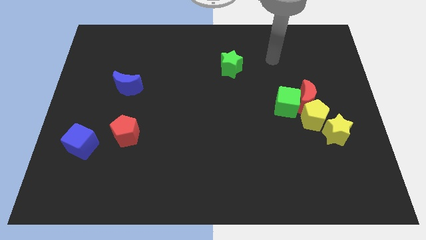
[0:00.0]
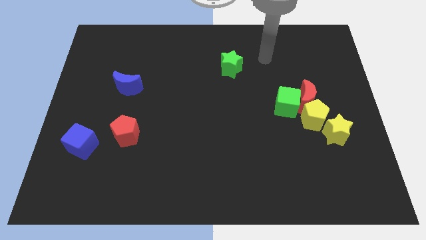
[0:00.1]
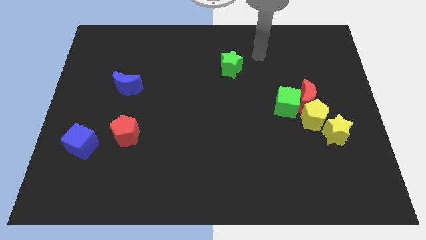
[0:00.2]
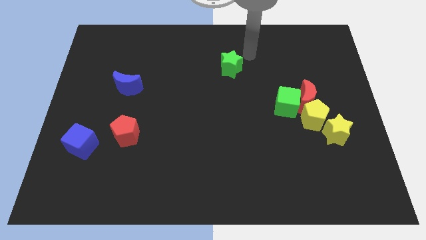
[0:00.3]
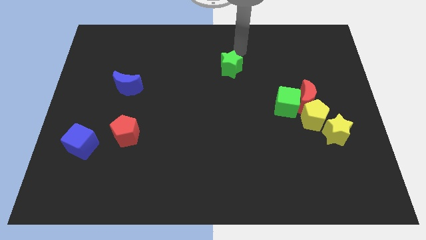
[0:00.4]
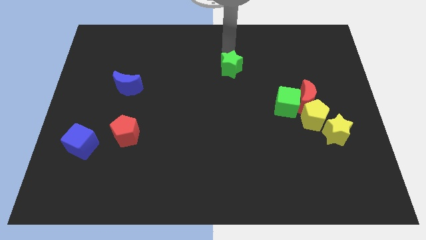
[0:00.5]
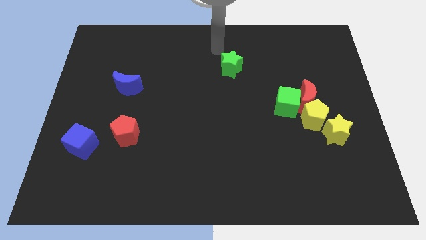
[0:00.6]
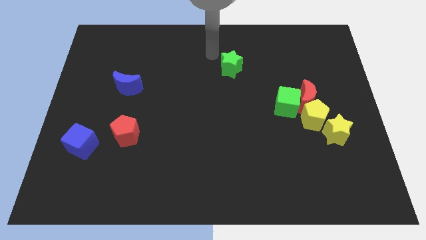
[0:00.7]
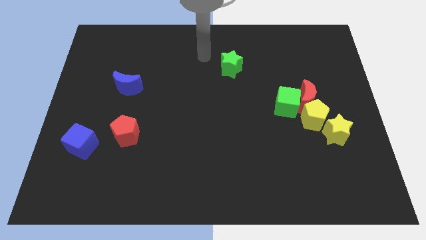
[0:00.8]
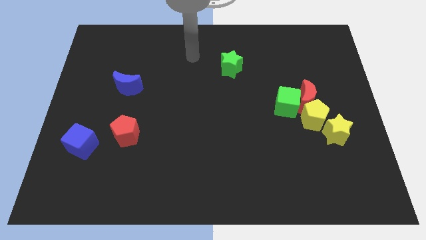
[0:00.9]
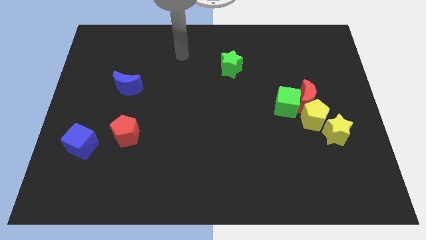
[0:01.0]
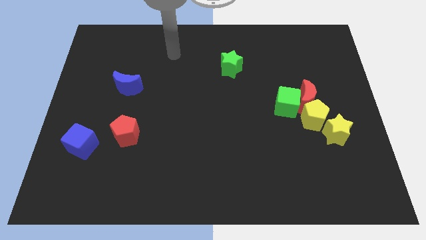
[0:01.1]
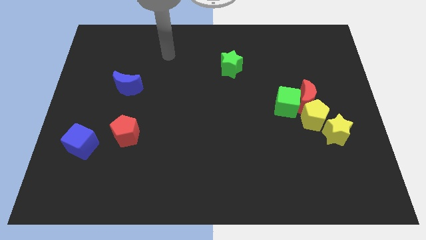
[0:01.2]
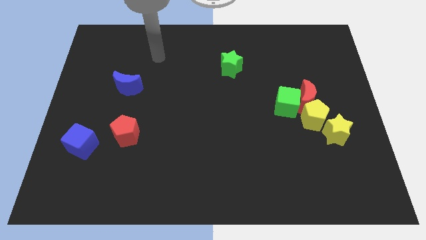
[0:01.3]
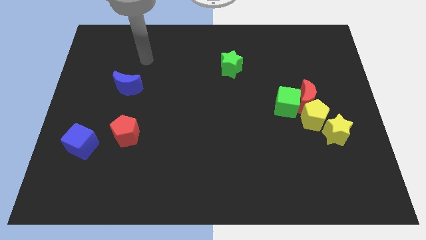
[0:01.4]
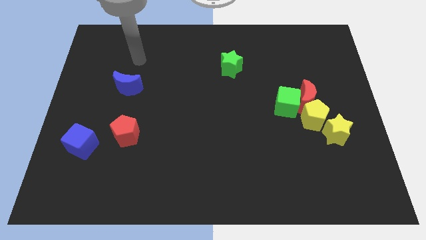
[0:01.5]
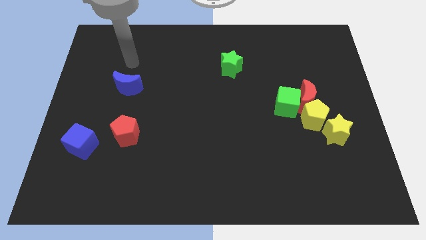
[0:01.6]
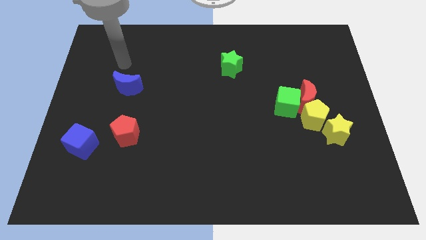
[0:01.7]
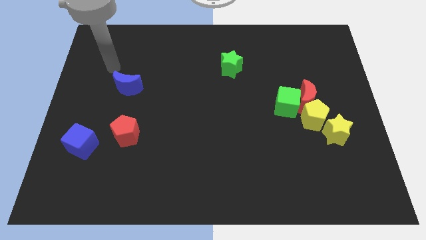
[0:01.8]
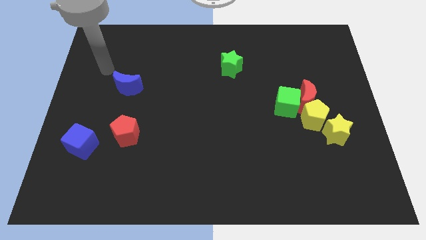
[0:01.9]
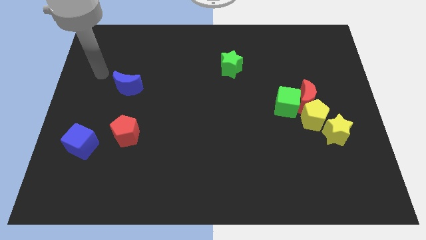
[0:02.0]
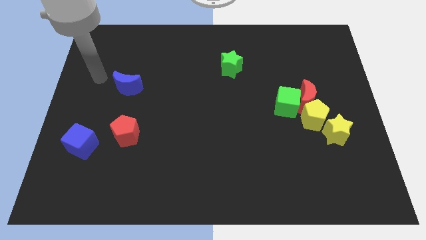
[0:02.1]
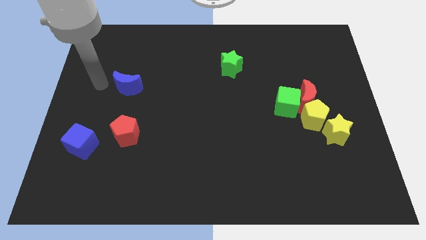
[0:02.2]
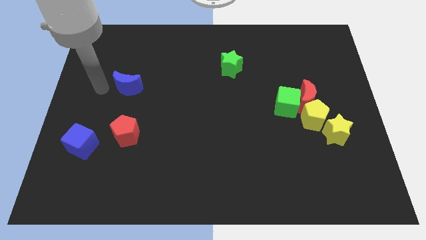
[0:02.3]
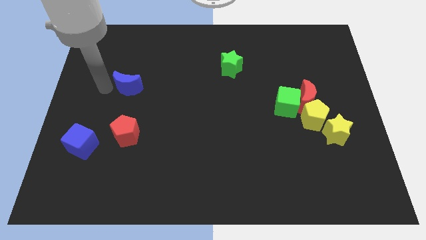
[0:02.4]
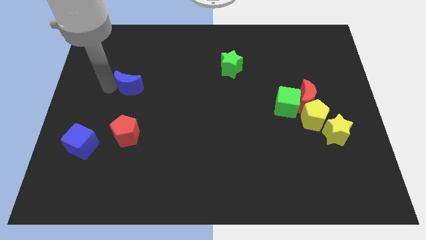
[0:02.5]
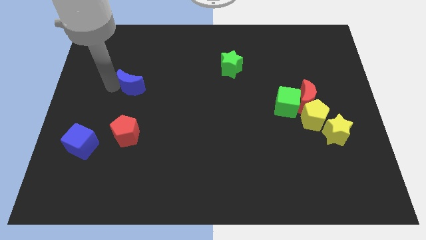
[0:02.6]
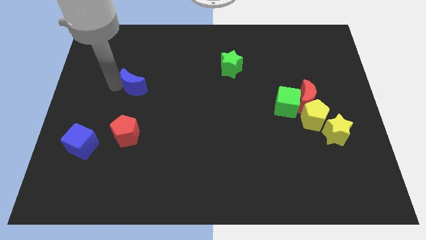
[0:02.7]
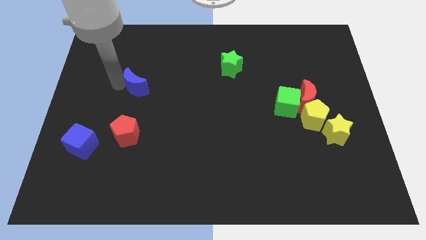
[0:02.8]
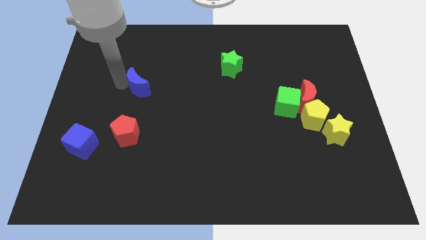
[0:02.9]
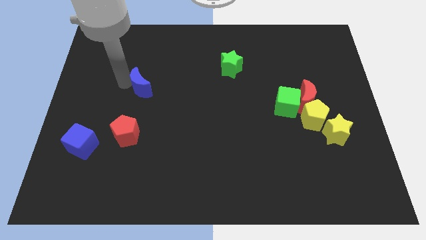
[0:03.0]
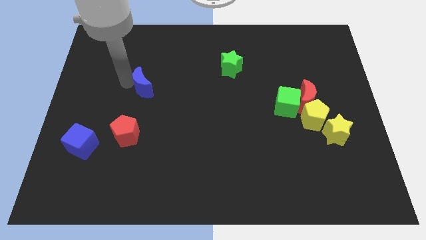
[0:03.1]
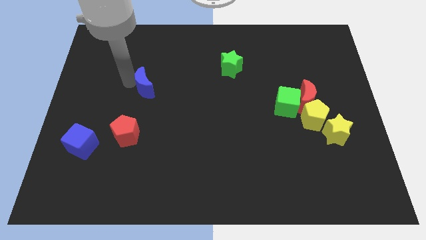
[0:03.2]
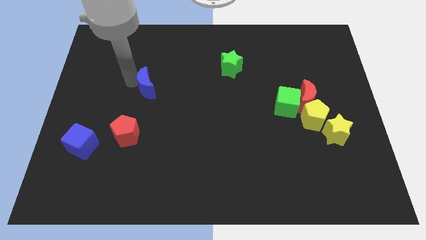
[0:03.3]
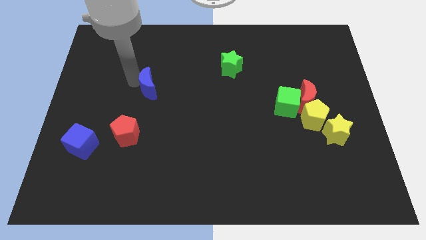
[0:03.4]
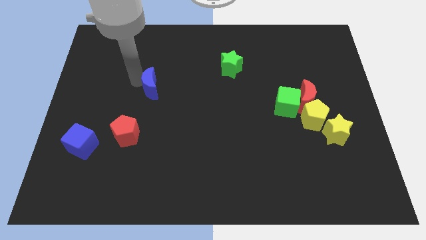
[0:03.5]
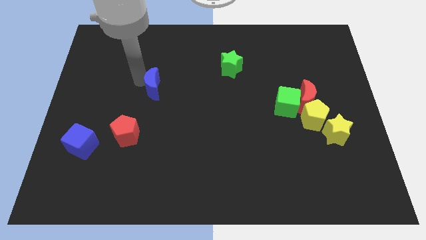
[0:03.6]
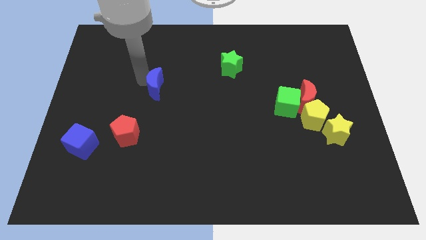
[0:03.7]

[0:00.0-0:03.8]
move the blue moon a little to the right

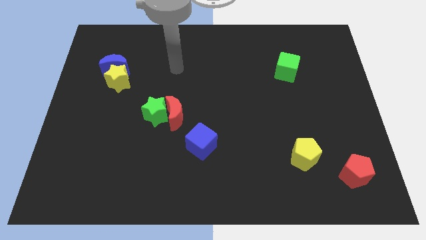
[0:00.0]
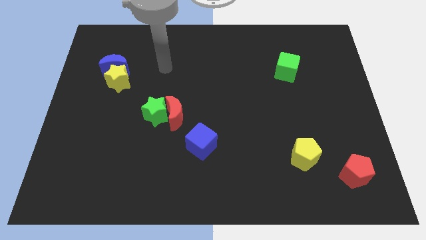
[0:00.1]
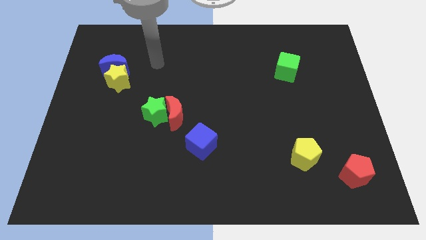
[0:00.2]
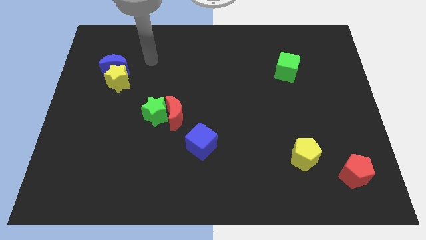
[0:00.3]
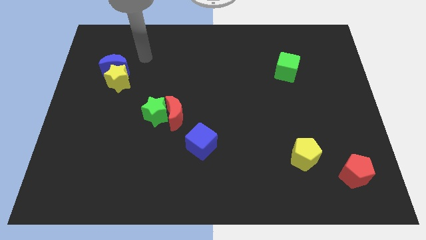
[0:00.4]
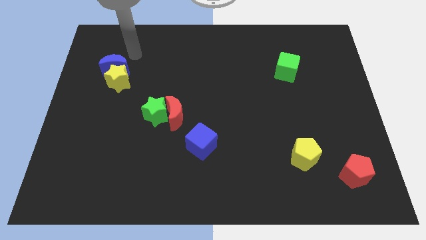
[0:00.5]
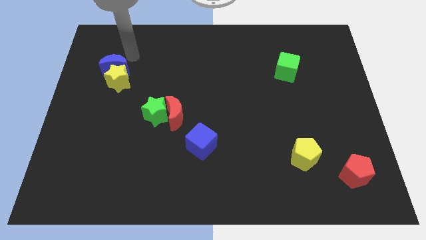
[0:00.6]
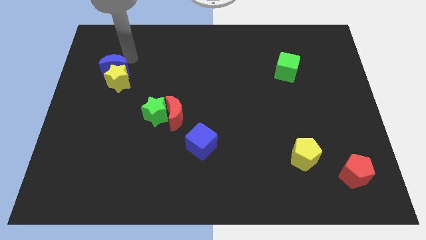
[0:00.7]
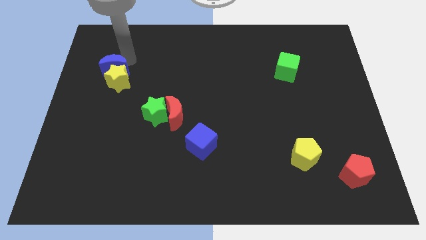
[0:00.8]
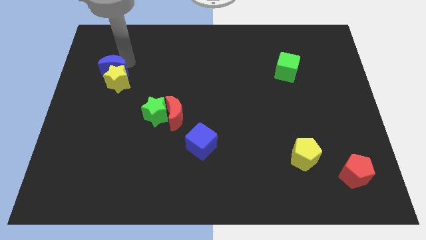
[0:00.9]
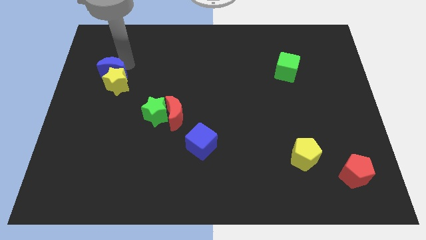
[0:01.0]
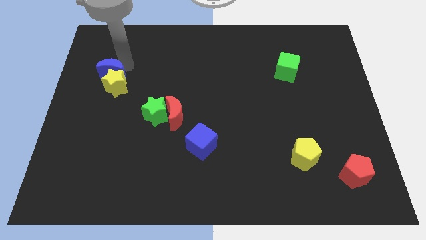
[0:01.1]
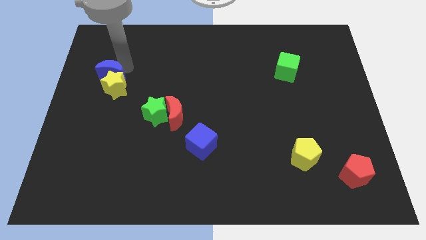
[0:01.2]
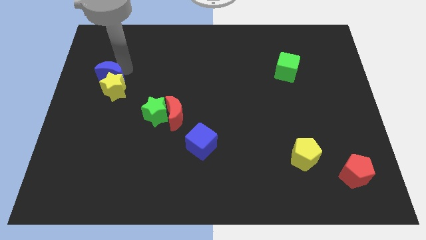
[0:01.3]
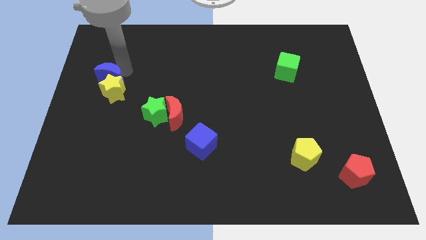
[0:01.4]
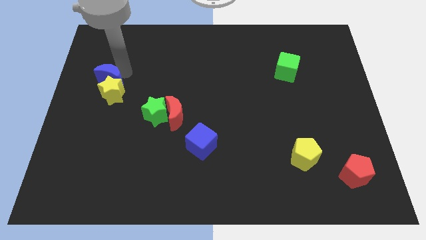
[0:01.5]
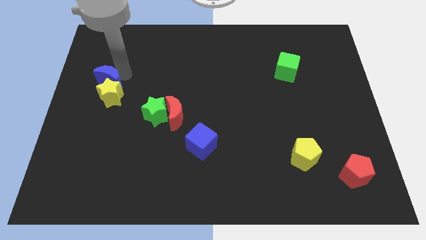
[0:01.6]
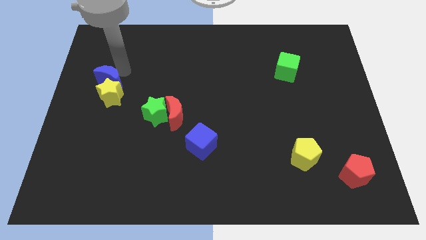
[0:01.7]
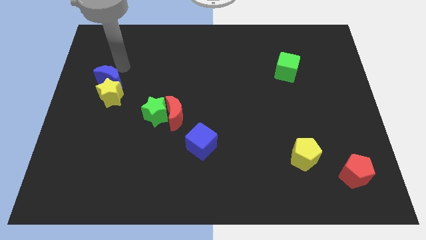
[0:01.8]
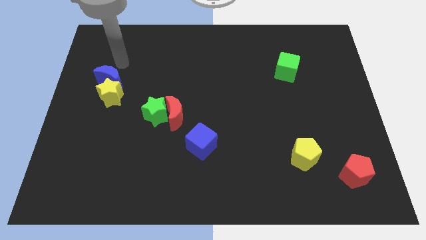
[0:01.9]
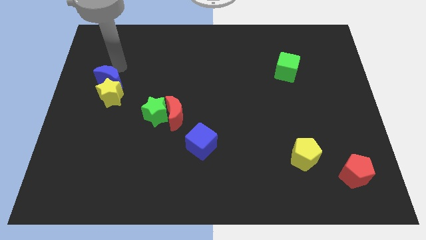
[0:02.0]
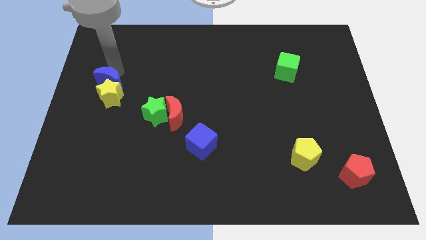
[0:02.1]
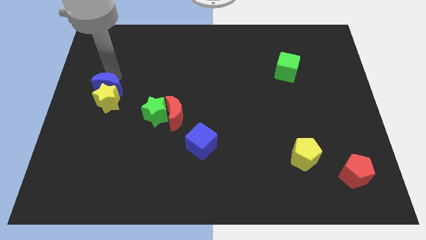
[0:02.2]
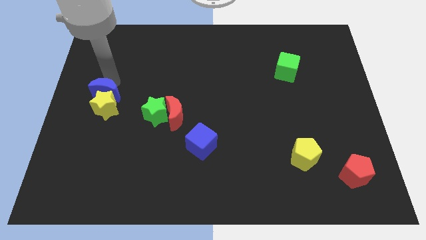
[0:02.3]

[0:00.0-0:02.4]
slide the blue moon downwards somewhat

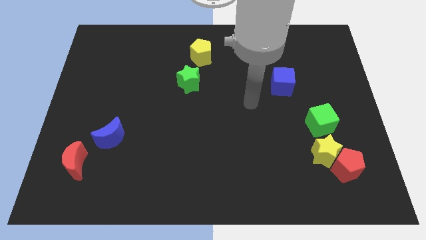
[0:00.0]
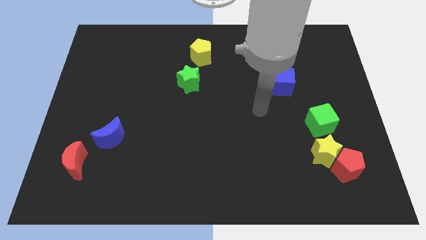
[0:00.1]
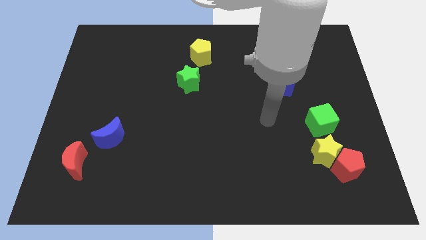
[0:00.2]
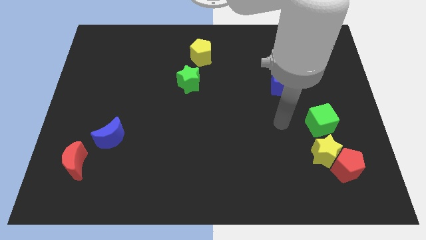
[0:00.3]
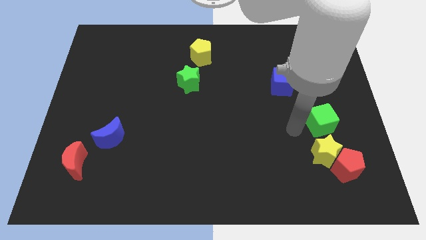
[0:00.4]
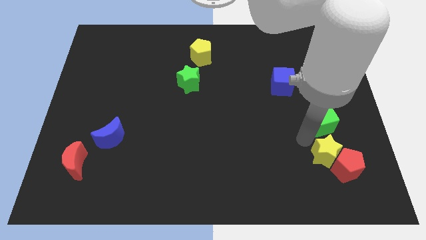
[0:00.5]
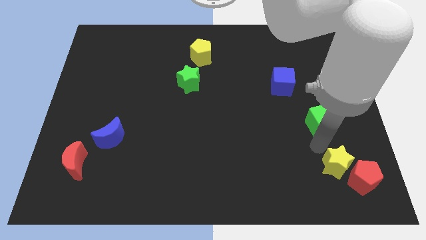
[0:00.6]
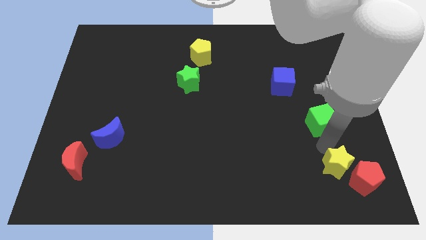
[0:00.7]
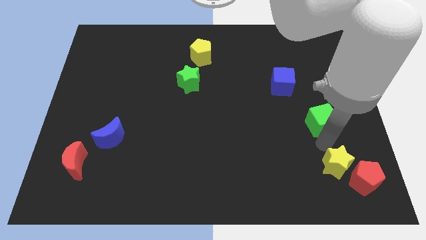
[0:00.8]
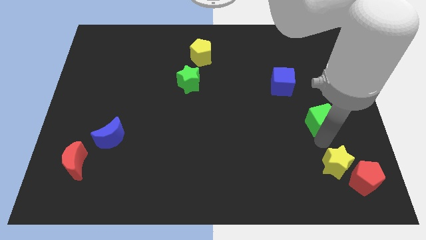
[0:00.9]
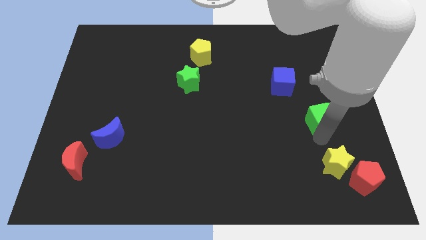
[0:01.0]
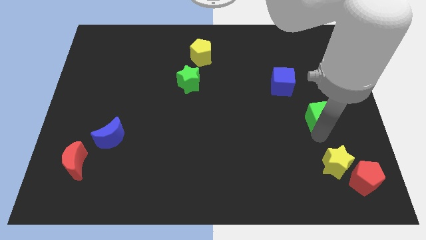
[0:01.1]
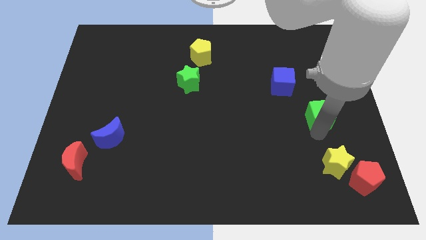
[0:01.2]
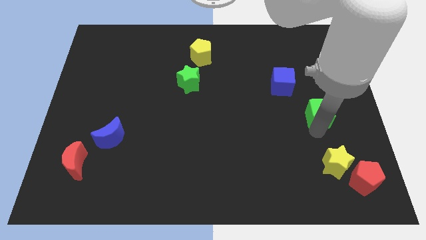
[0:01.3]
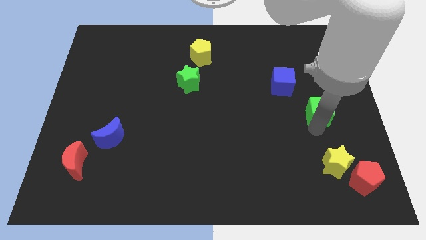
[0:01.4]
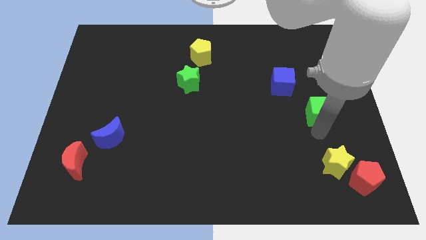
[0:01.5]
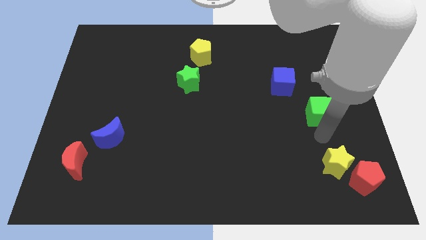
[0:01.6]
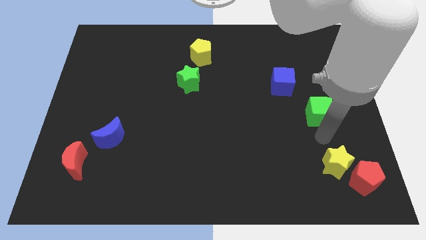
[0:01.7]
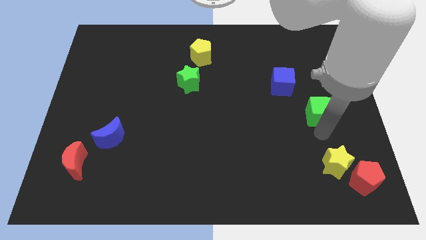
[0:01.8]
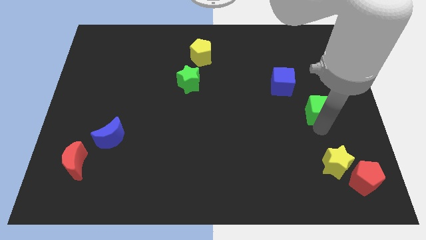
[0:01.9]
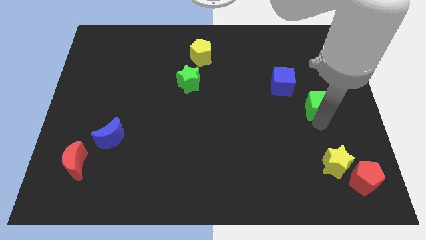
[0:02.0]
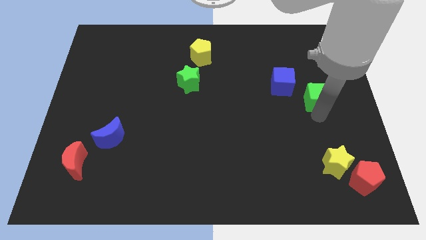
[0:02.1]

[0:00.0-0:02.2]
slightly push the green cube upwards
